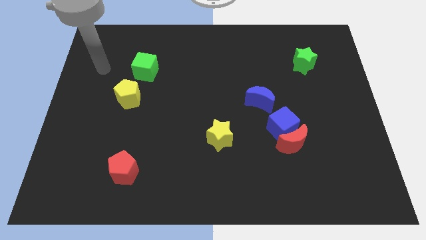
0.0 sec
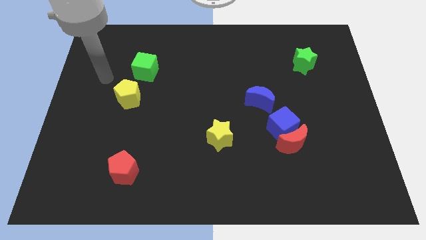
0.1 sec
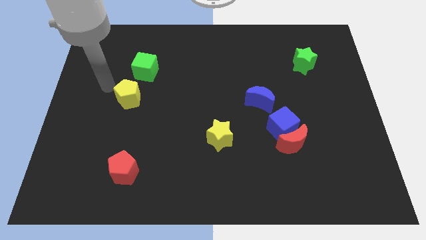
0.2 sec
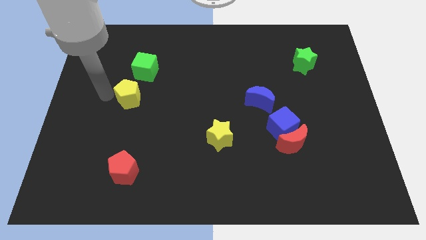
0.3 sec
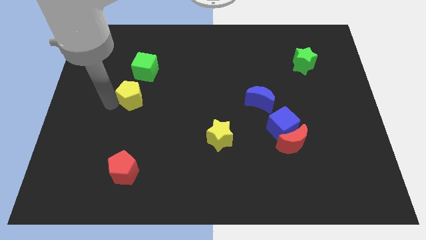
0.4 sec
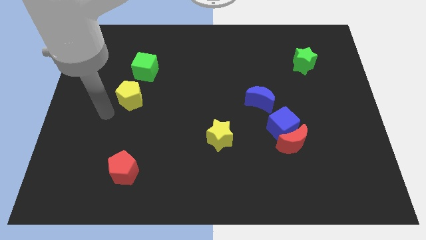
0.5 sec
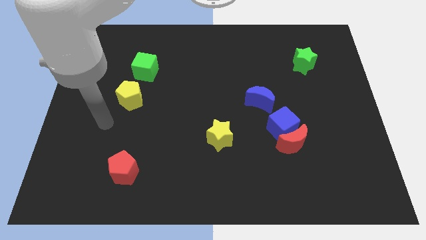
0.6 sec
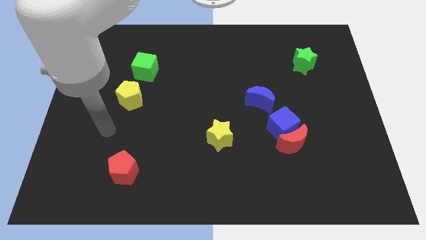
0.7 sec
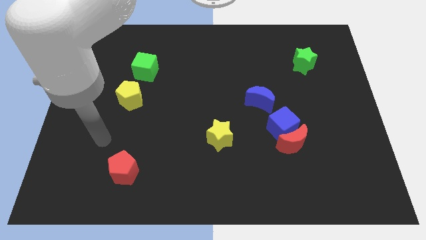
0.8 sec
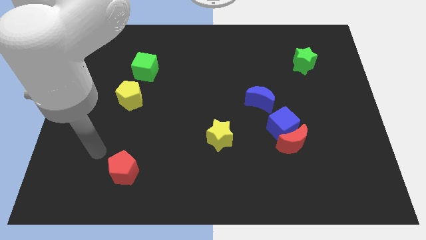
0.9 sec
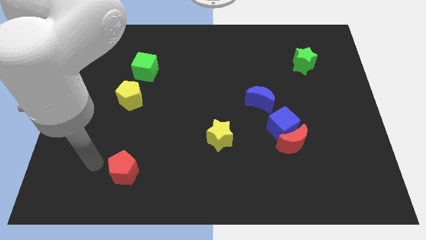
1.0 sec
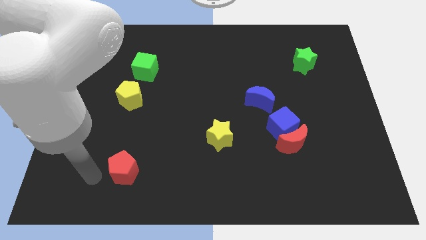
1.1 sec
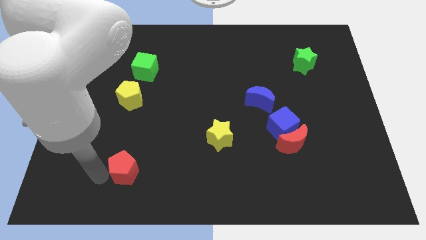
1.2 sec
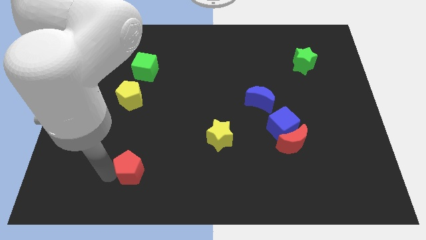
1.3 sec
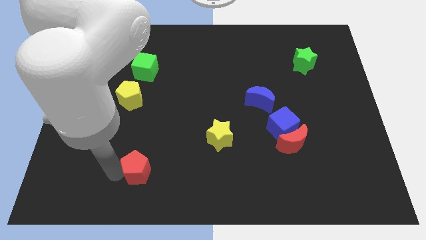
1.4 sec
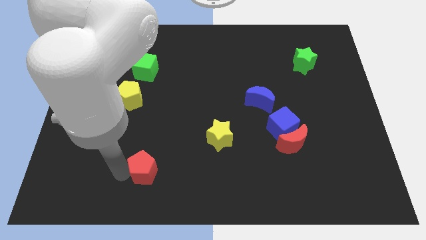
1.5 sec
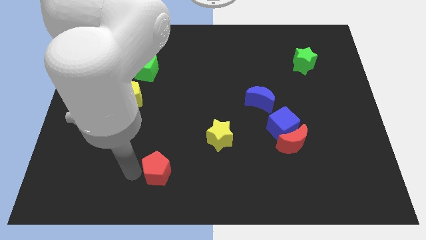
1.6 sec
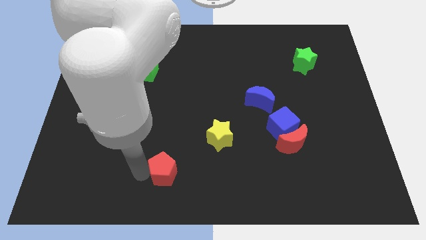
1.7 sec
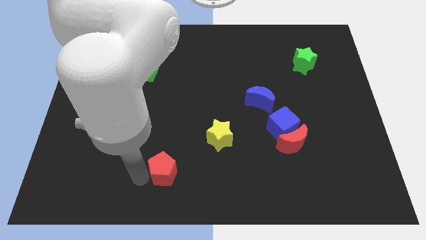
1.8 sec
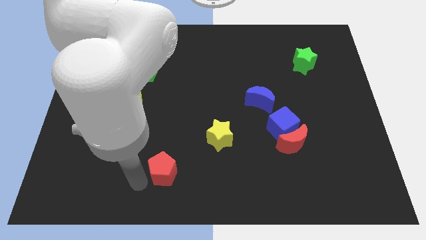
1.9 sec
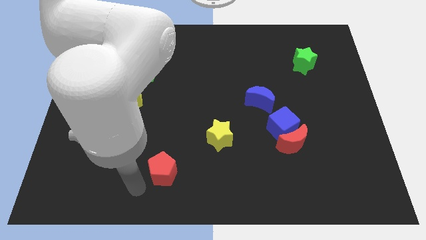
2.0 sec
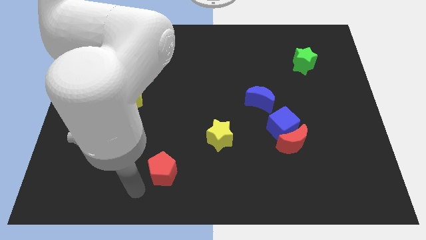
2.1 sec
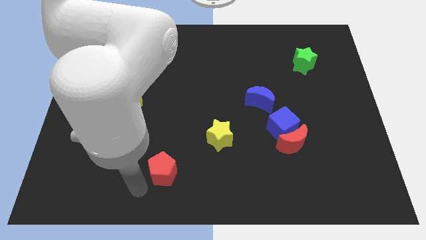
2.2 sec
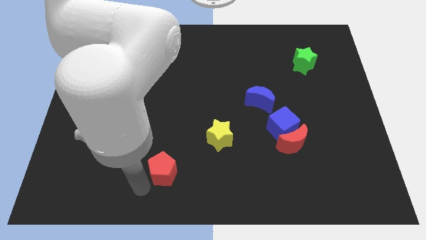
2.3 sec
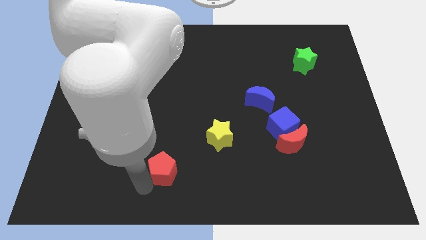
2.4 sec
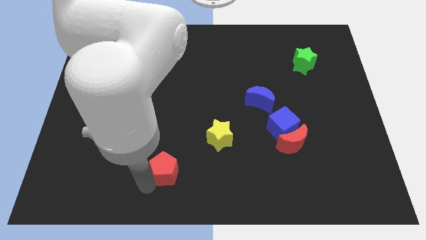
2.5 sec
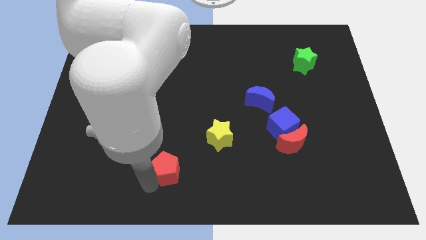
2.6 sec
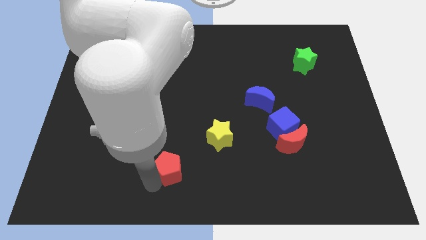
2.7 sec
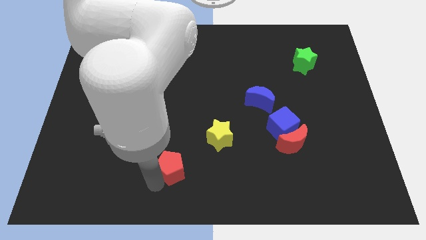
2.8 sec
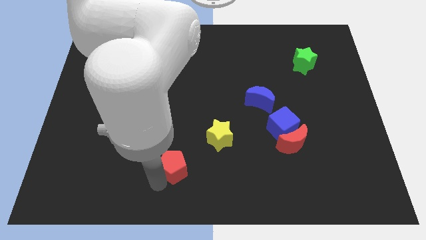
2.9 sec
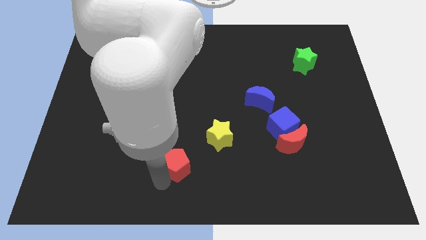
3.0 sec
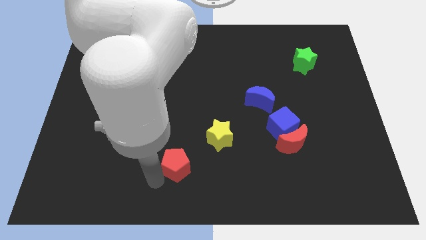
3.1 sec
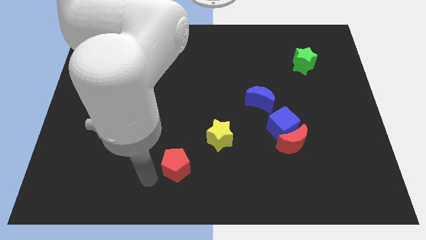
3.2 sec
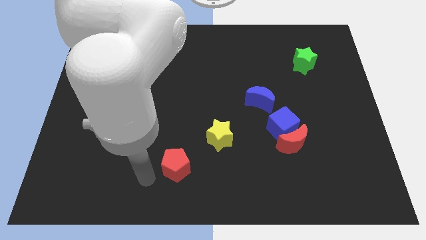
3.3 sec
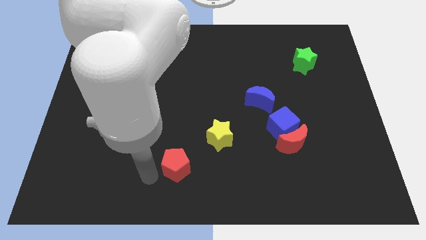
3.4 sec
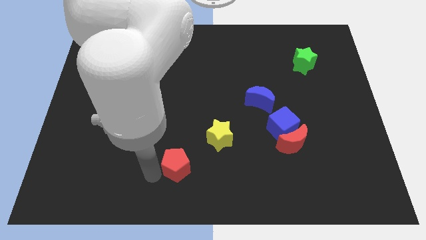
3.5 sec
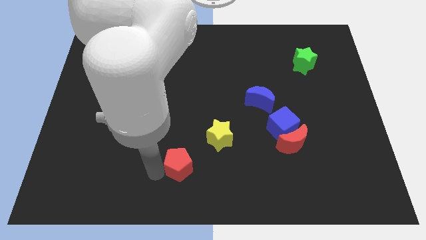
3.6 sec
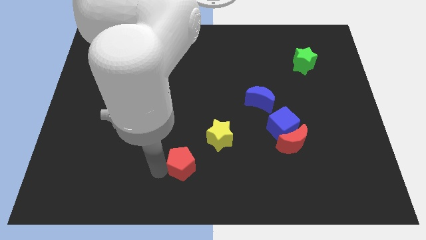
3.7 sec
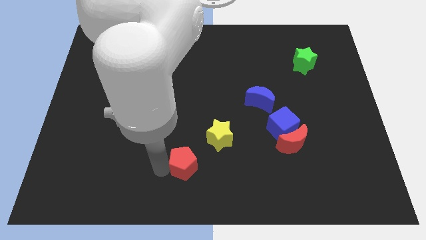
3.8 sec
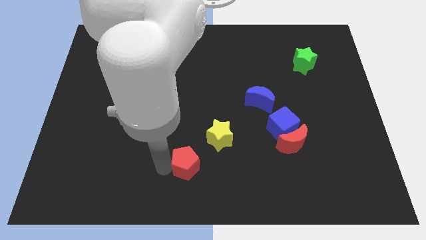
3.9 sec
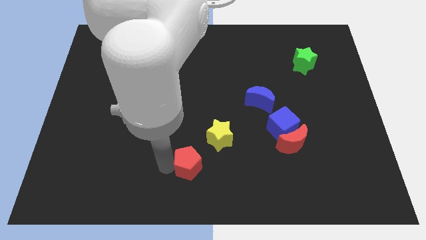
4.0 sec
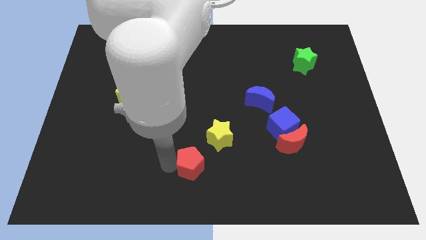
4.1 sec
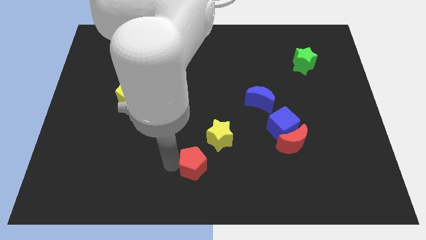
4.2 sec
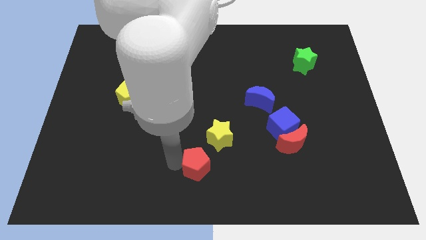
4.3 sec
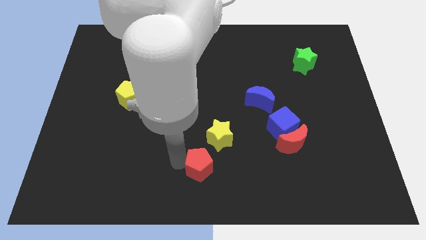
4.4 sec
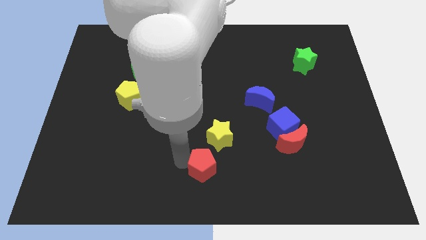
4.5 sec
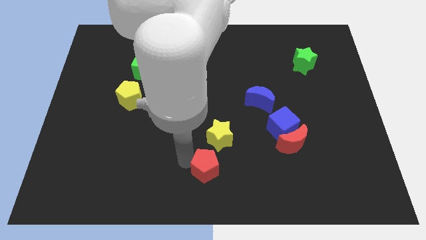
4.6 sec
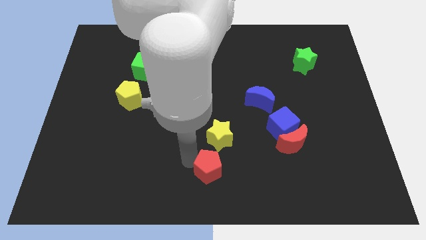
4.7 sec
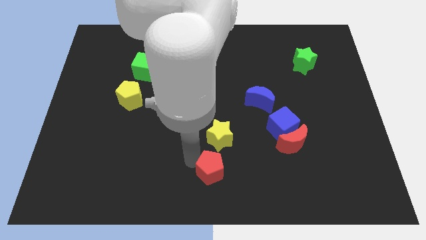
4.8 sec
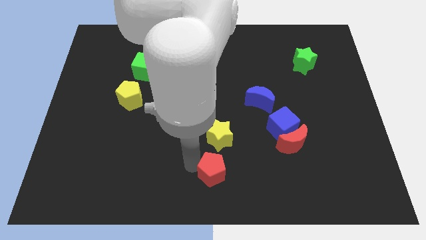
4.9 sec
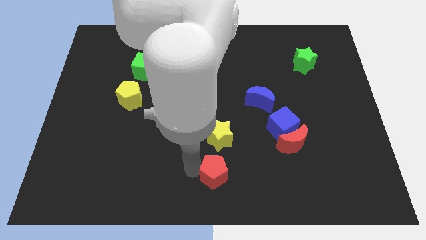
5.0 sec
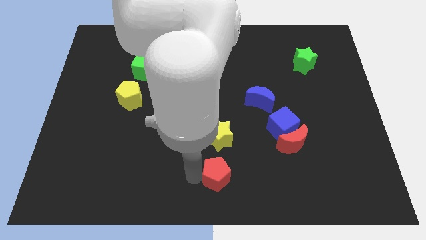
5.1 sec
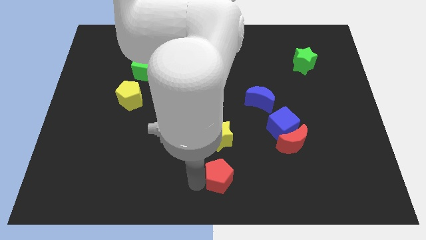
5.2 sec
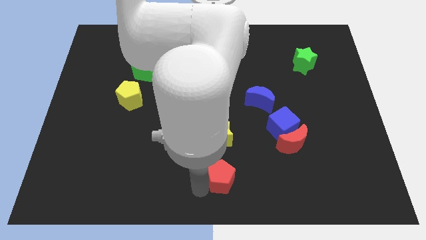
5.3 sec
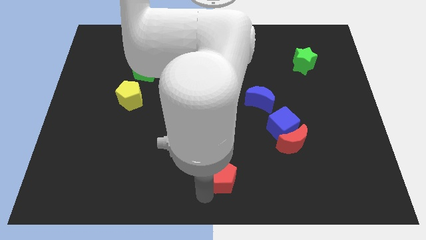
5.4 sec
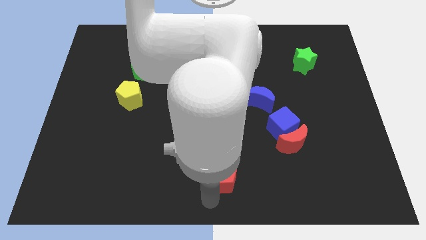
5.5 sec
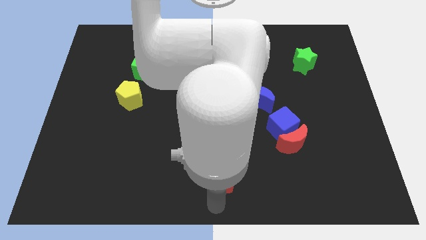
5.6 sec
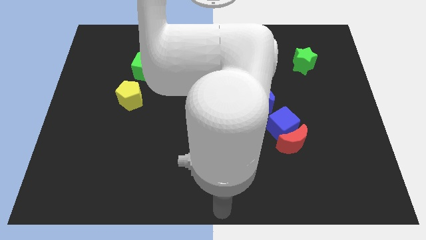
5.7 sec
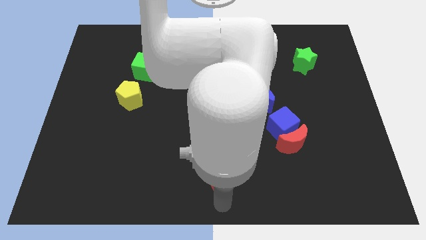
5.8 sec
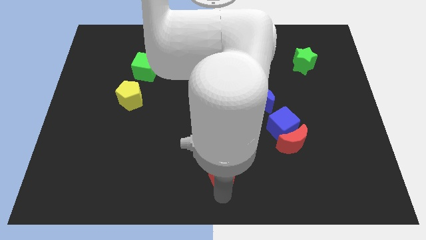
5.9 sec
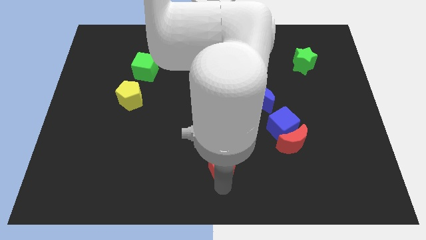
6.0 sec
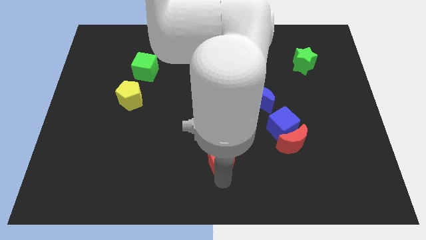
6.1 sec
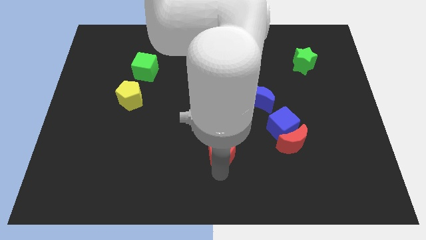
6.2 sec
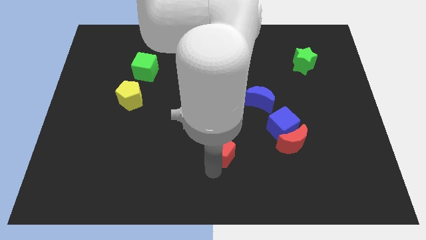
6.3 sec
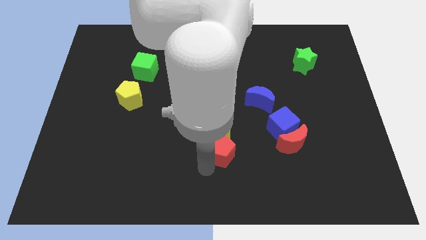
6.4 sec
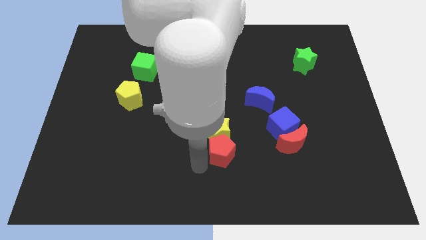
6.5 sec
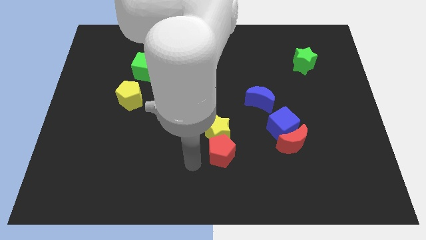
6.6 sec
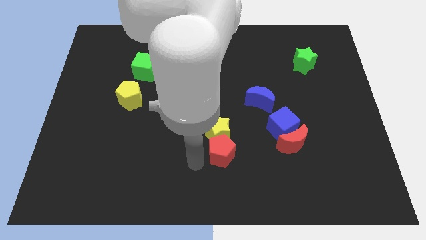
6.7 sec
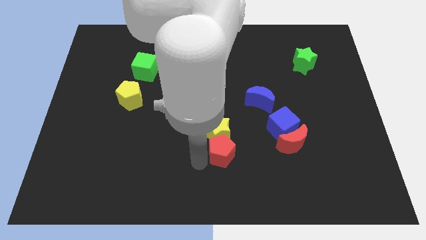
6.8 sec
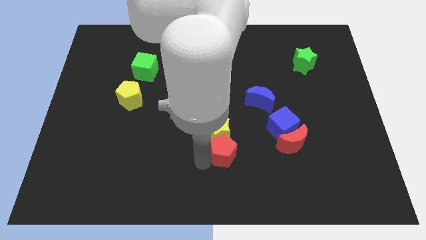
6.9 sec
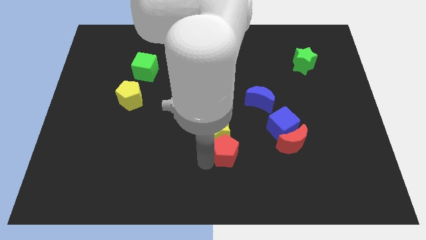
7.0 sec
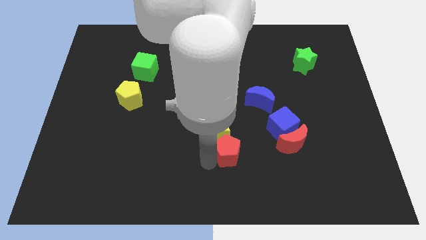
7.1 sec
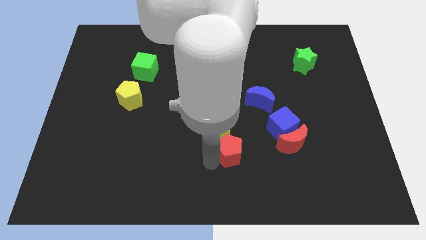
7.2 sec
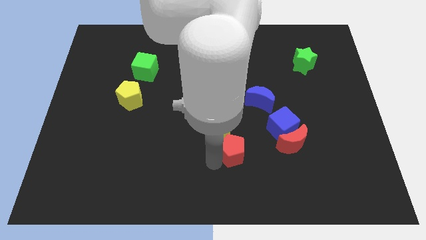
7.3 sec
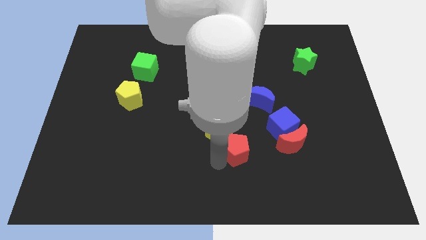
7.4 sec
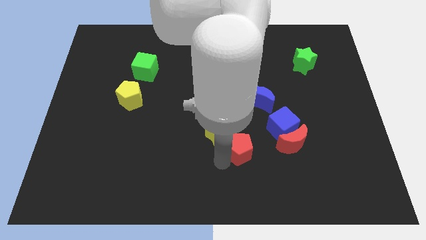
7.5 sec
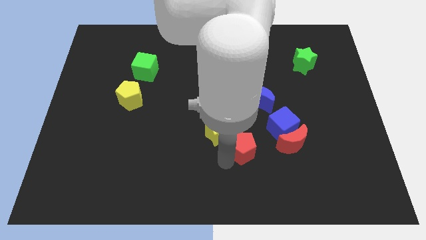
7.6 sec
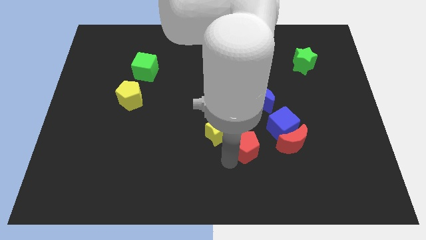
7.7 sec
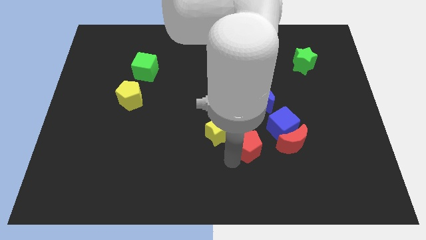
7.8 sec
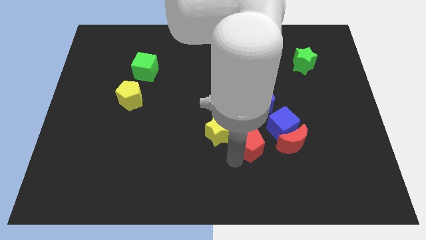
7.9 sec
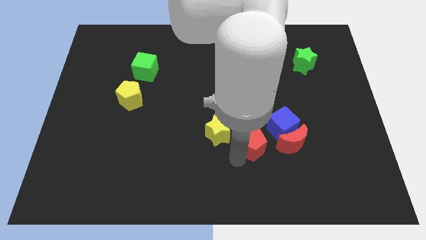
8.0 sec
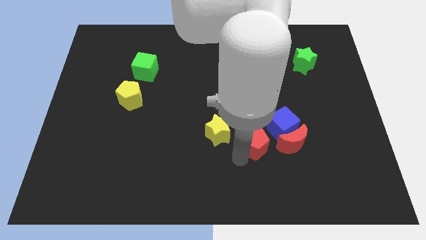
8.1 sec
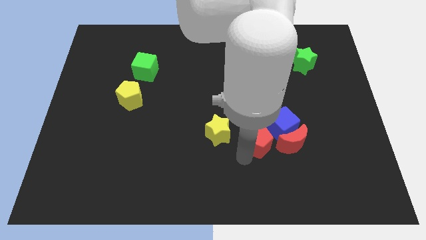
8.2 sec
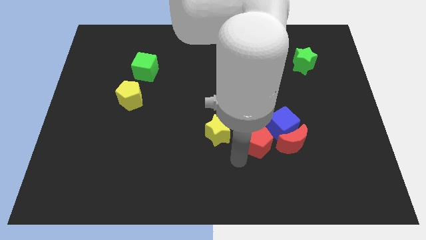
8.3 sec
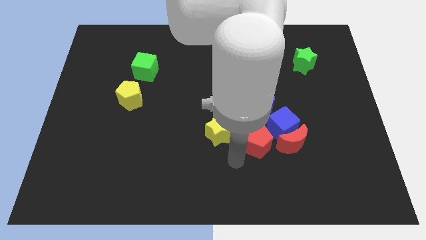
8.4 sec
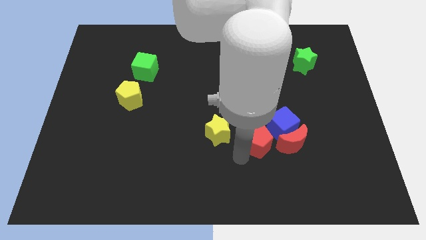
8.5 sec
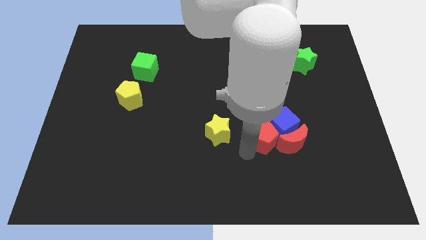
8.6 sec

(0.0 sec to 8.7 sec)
put the red pentagon to the blue cube
